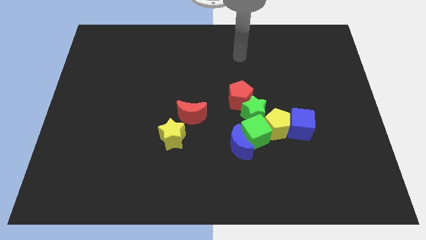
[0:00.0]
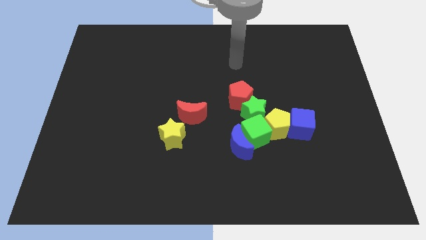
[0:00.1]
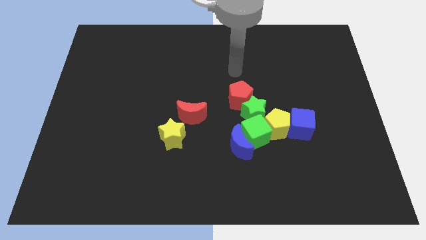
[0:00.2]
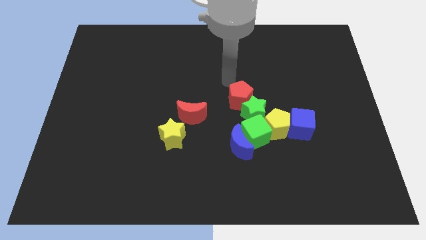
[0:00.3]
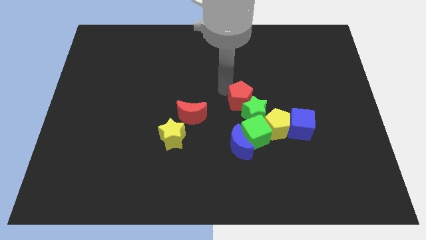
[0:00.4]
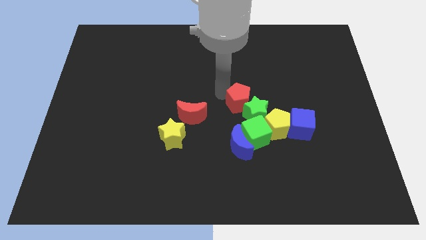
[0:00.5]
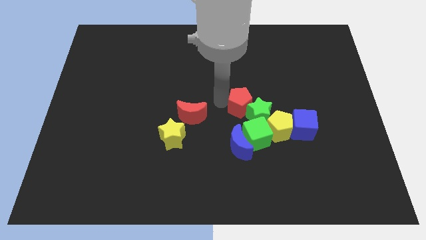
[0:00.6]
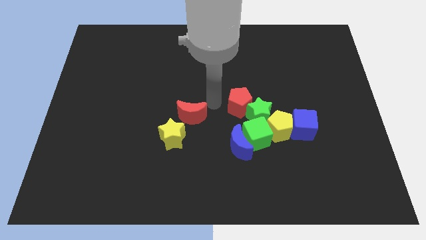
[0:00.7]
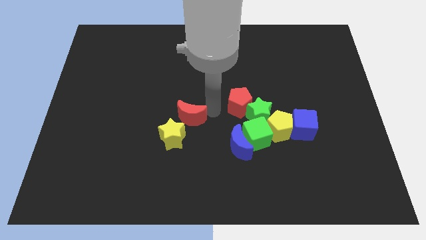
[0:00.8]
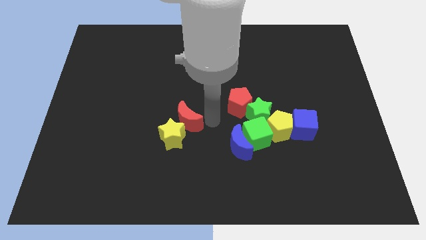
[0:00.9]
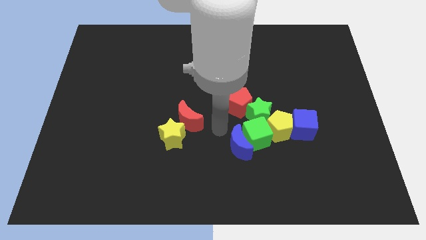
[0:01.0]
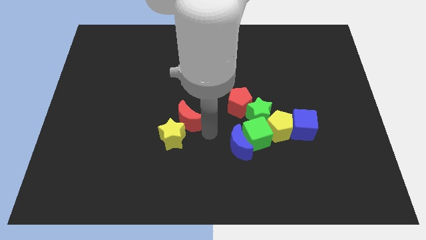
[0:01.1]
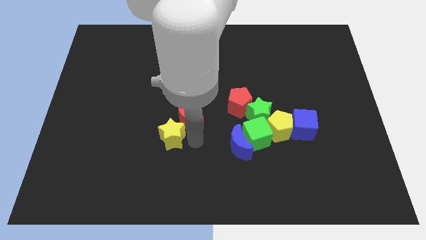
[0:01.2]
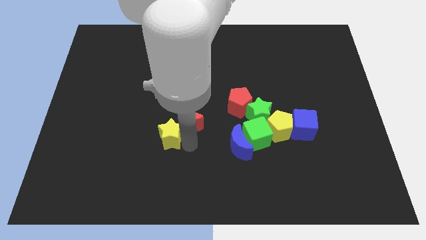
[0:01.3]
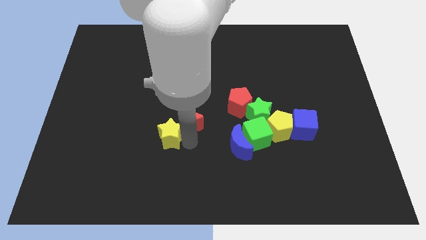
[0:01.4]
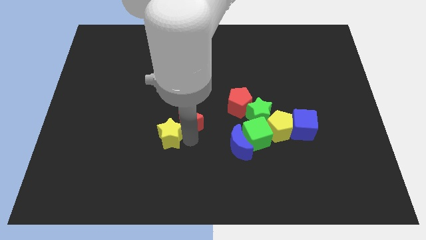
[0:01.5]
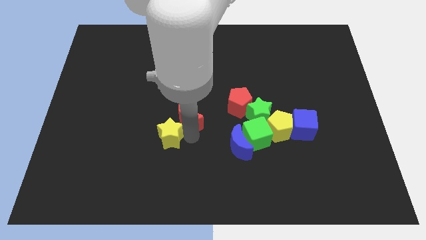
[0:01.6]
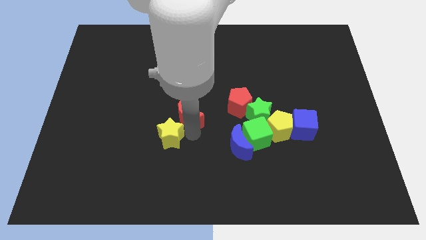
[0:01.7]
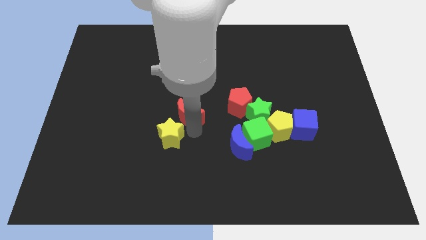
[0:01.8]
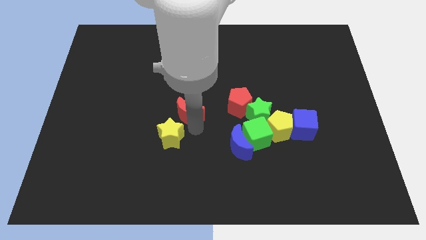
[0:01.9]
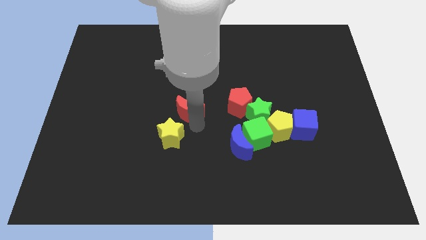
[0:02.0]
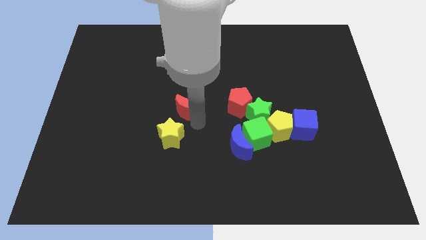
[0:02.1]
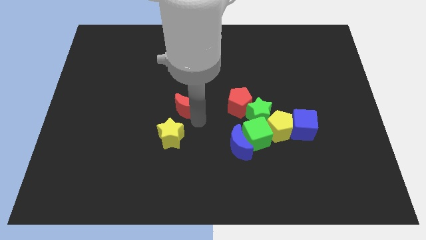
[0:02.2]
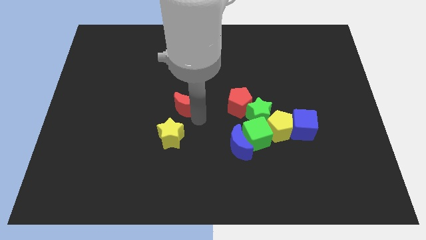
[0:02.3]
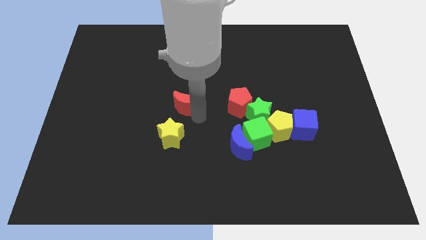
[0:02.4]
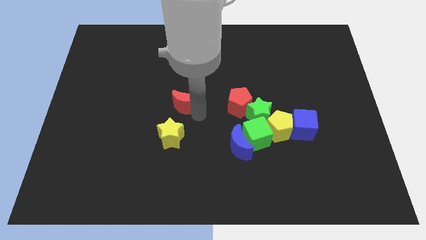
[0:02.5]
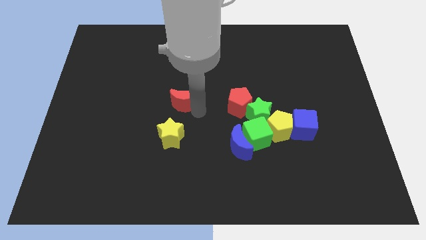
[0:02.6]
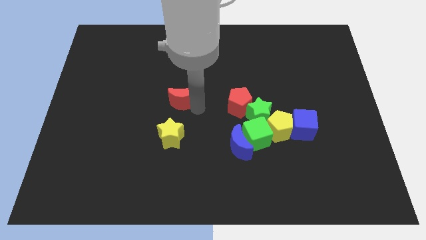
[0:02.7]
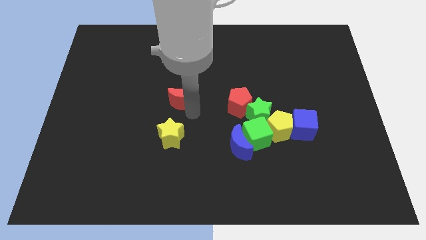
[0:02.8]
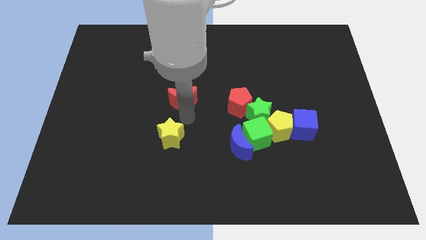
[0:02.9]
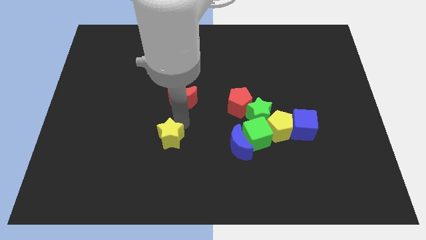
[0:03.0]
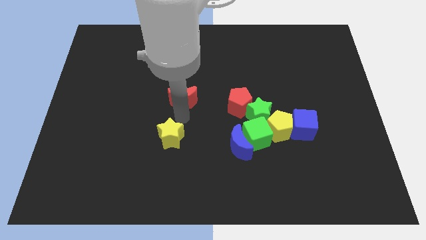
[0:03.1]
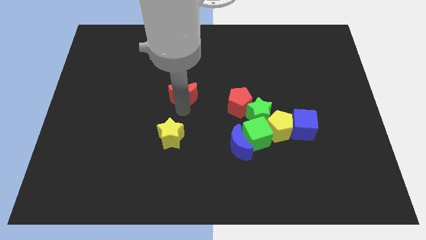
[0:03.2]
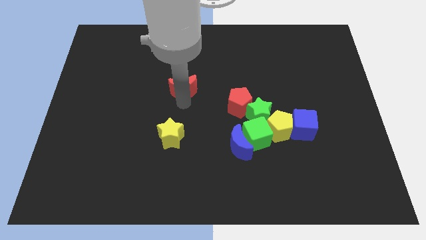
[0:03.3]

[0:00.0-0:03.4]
slide the red moon slightly upwards

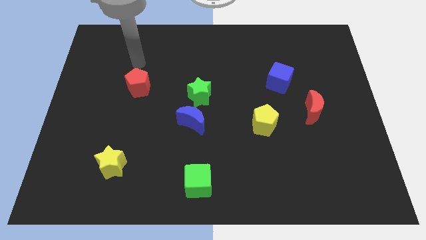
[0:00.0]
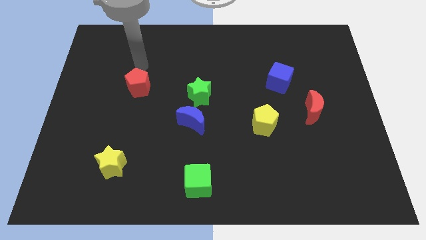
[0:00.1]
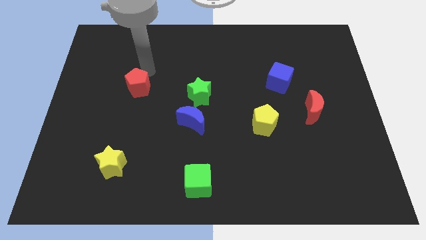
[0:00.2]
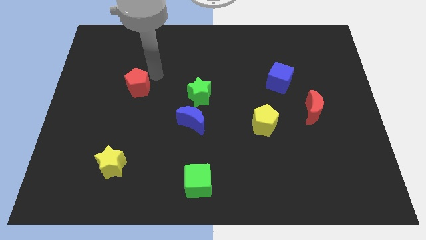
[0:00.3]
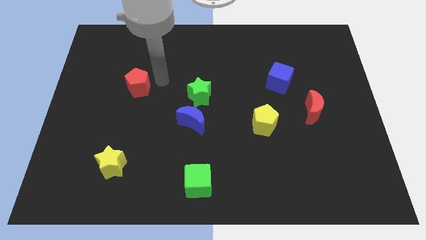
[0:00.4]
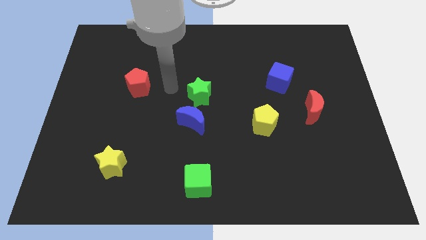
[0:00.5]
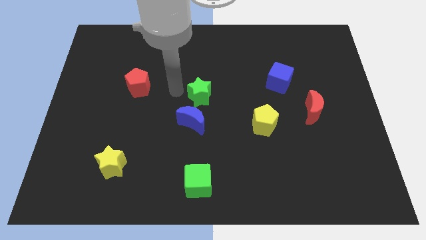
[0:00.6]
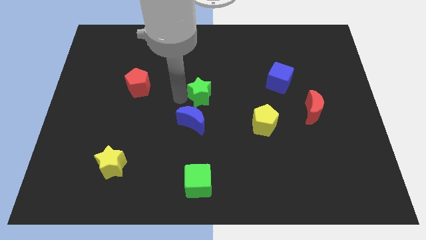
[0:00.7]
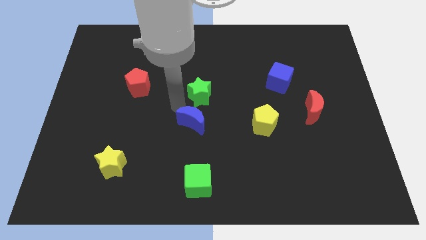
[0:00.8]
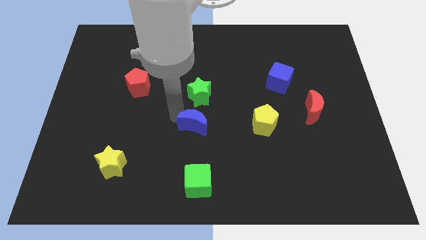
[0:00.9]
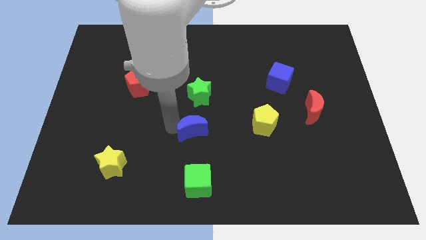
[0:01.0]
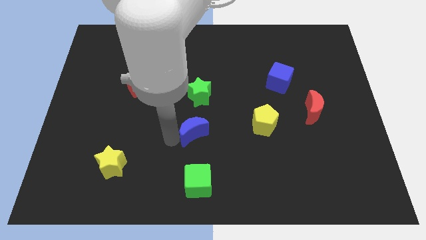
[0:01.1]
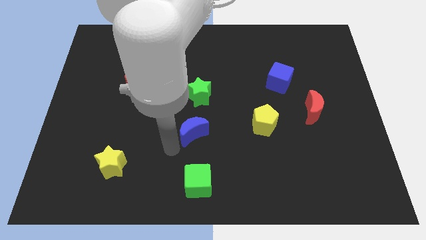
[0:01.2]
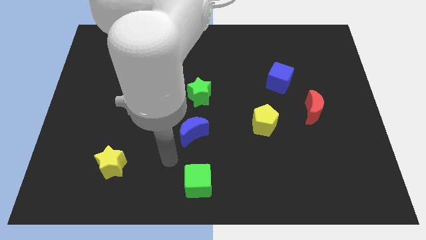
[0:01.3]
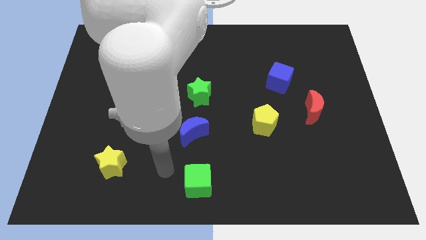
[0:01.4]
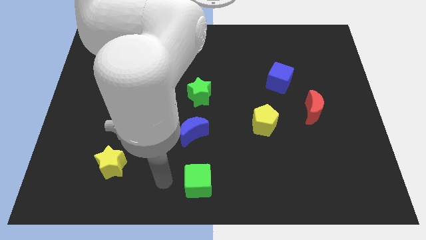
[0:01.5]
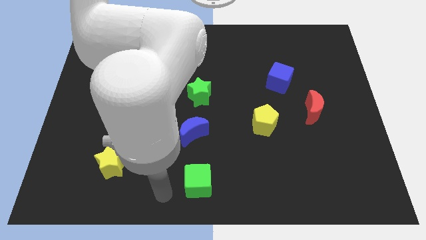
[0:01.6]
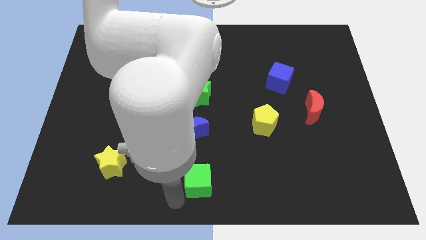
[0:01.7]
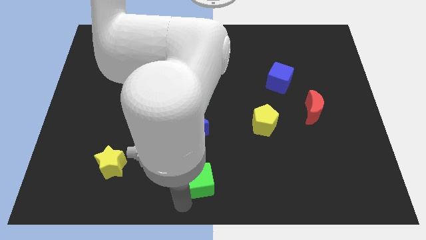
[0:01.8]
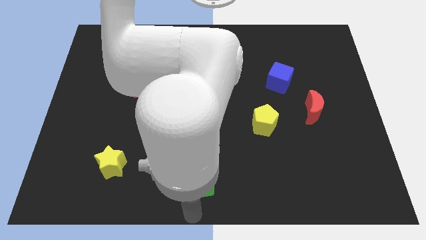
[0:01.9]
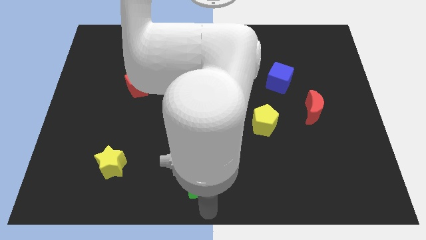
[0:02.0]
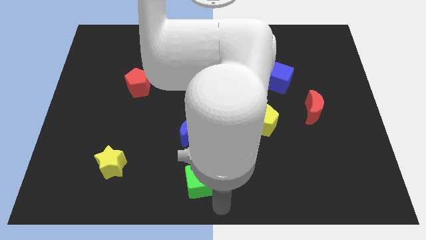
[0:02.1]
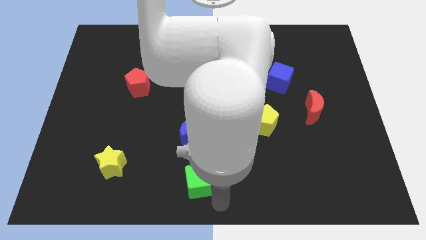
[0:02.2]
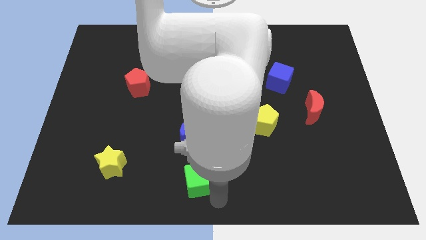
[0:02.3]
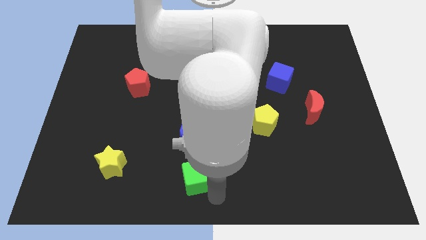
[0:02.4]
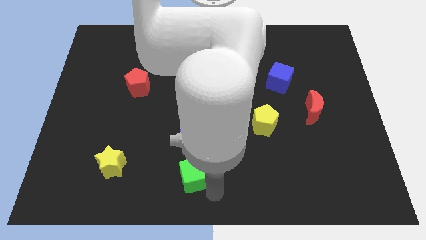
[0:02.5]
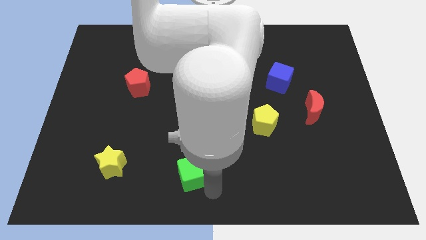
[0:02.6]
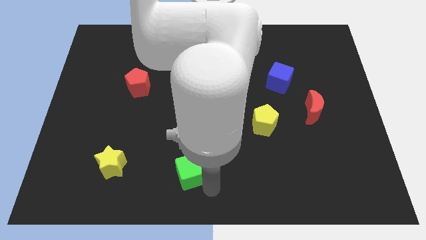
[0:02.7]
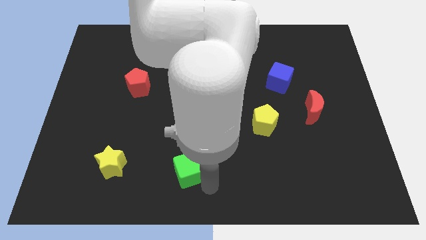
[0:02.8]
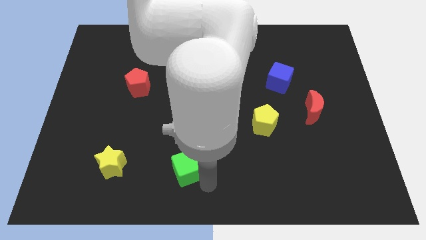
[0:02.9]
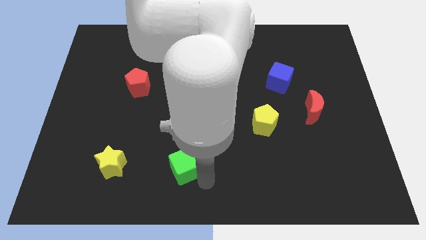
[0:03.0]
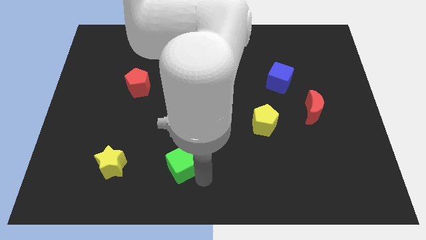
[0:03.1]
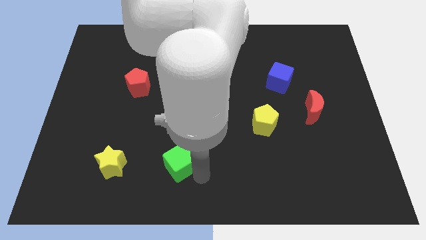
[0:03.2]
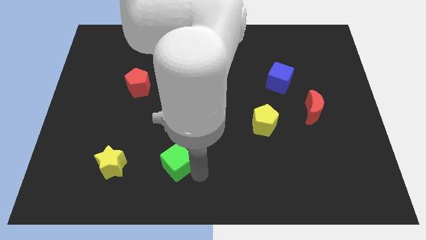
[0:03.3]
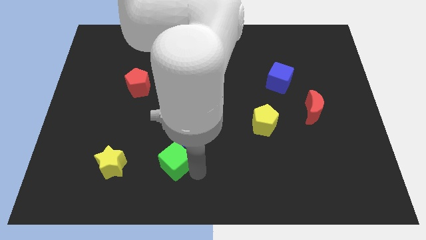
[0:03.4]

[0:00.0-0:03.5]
slide the green cube upwards and left diagonally slightly

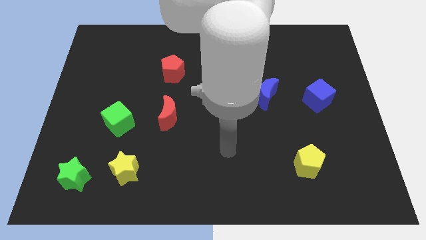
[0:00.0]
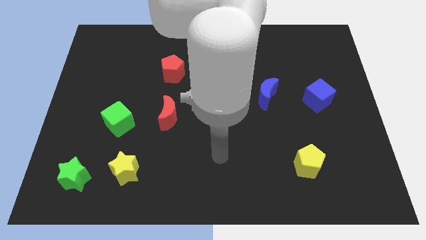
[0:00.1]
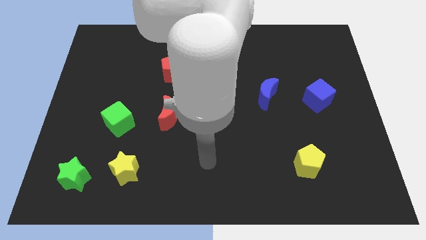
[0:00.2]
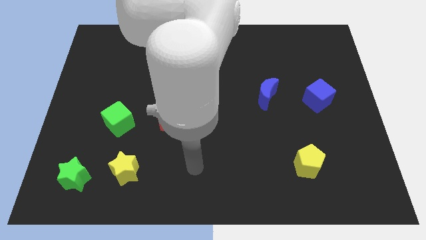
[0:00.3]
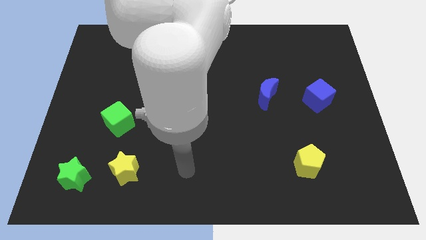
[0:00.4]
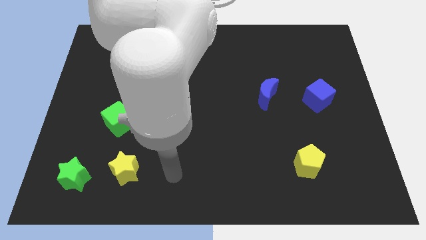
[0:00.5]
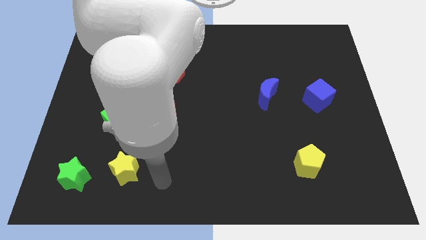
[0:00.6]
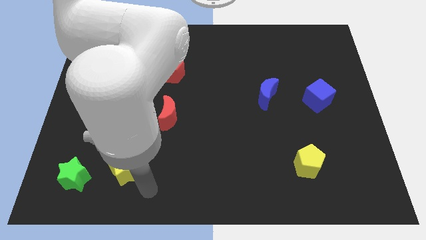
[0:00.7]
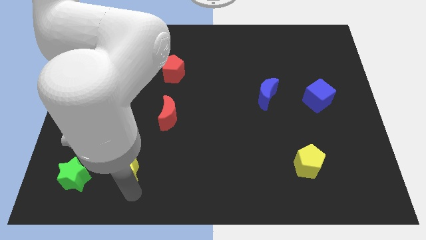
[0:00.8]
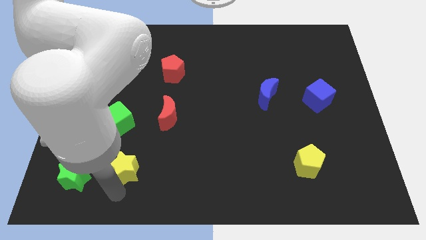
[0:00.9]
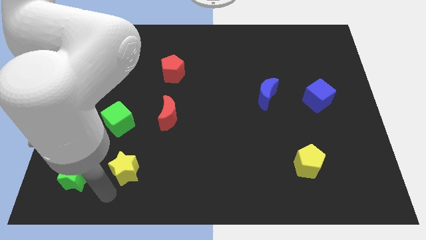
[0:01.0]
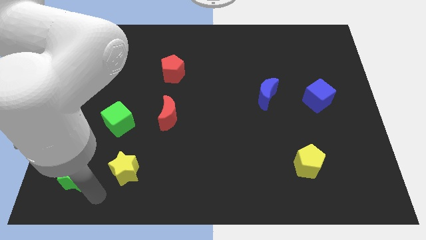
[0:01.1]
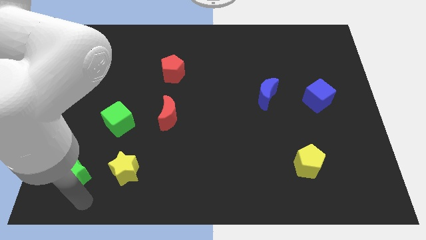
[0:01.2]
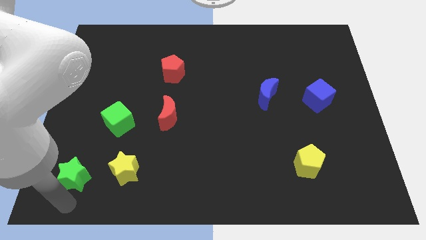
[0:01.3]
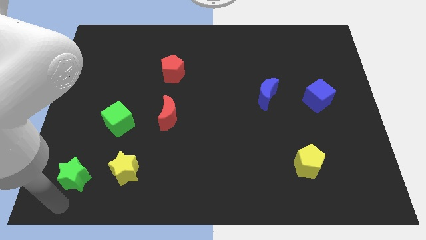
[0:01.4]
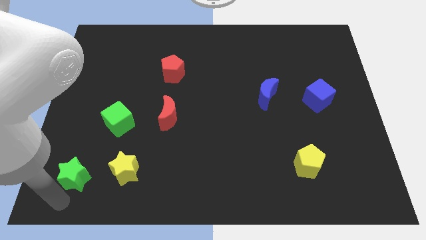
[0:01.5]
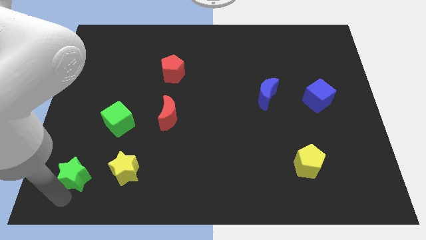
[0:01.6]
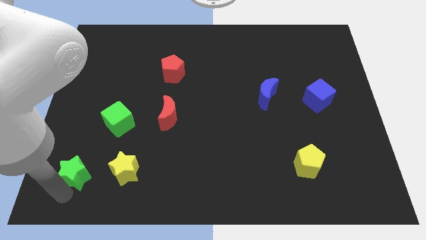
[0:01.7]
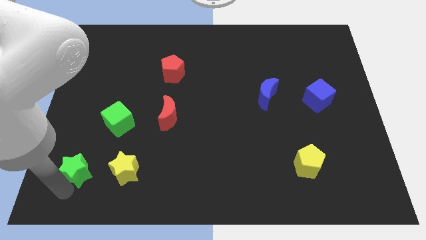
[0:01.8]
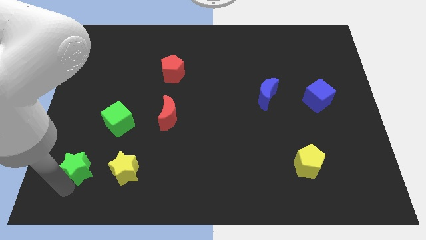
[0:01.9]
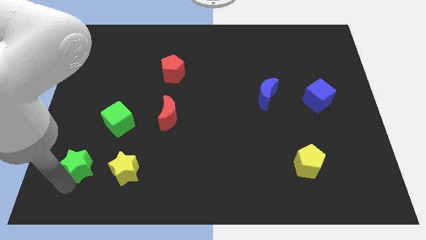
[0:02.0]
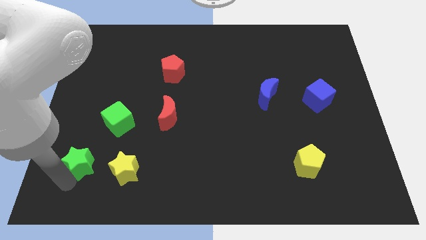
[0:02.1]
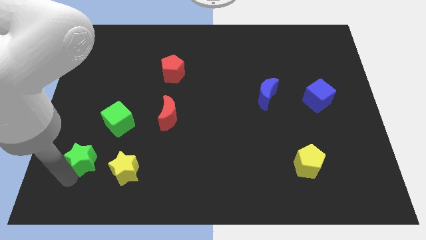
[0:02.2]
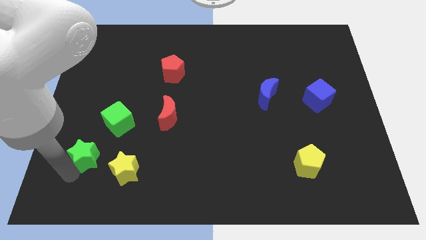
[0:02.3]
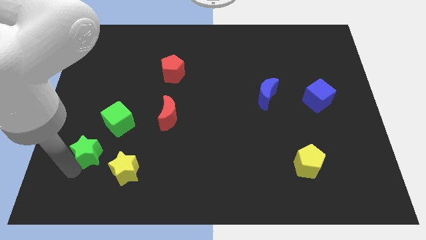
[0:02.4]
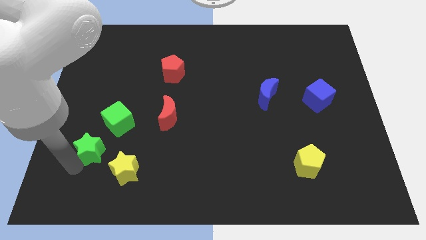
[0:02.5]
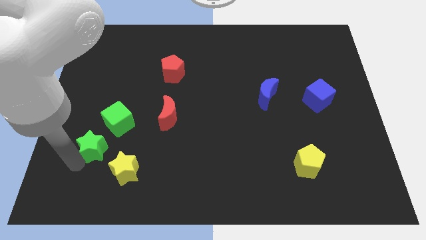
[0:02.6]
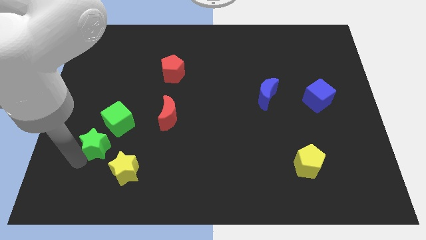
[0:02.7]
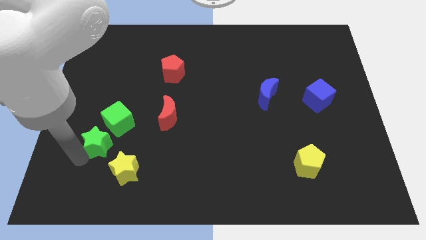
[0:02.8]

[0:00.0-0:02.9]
slightly slide the green star upwards and right diagonally
